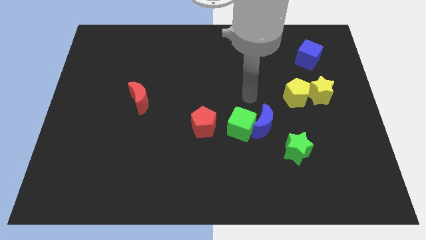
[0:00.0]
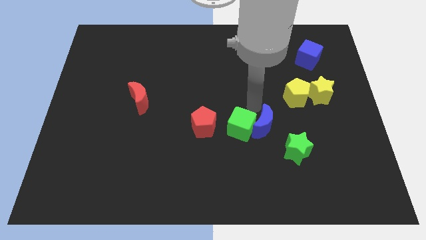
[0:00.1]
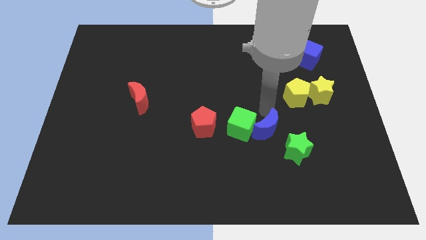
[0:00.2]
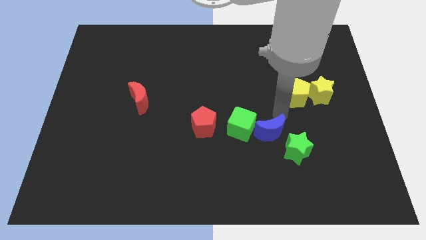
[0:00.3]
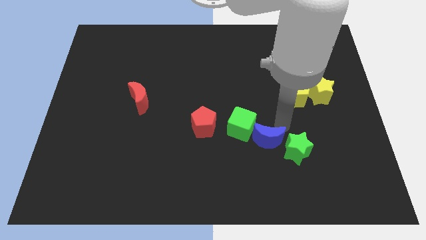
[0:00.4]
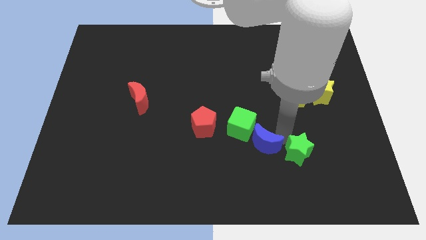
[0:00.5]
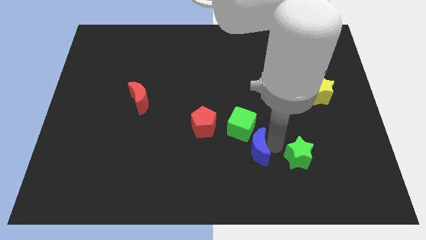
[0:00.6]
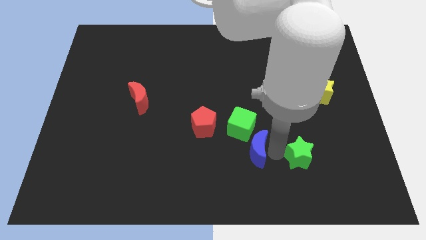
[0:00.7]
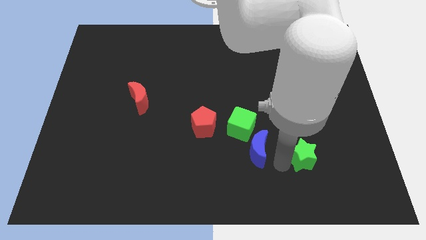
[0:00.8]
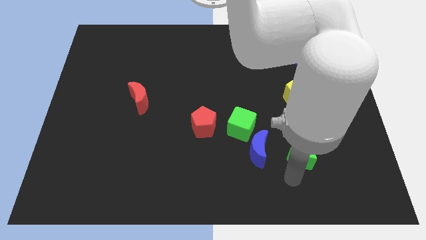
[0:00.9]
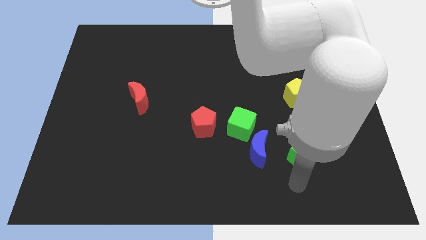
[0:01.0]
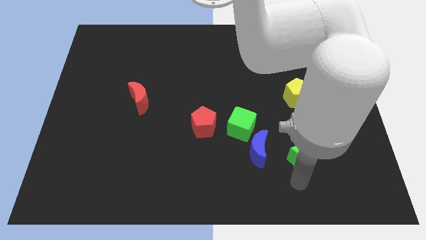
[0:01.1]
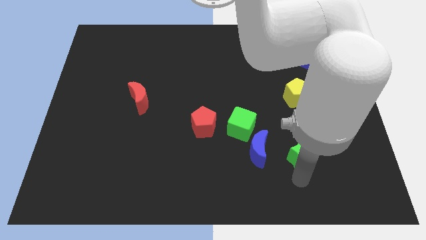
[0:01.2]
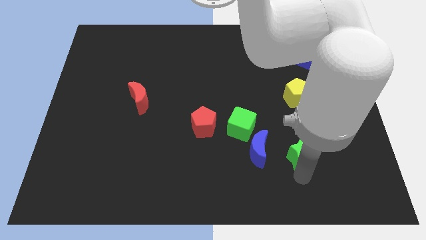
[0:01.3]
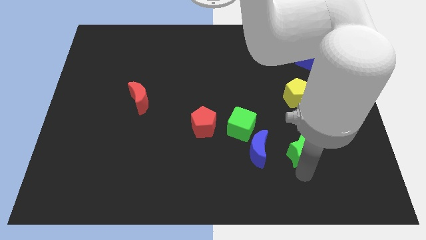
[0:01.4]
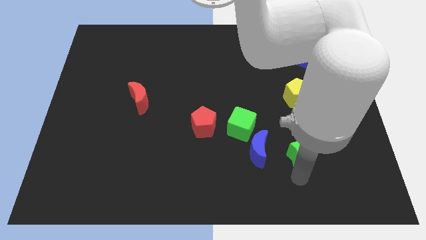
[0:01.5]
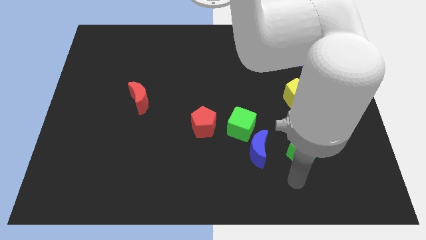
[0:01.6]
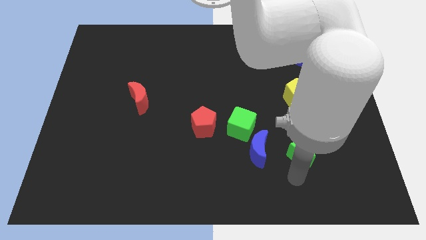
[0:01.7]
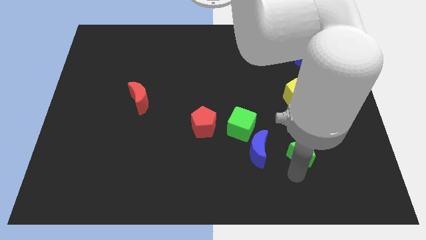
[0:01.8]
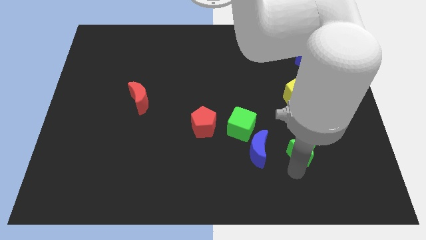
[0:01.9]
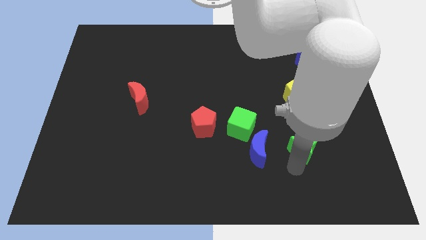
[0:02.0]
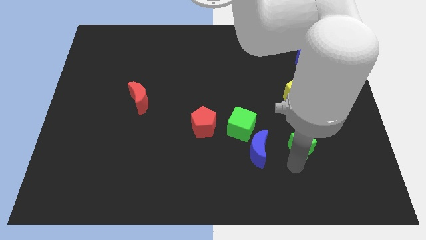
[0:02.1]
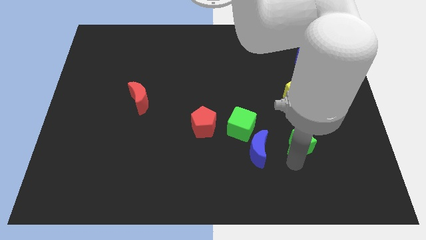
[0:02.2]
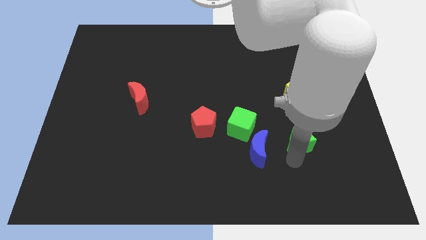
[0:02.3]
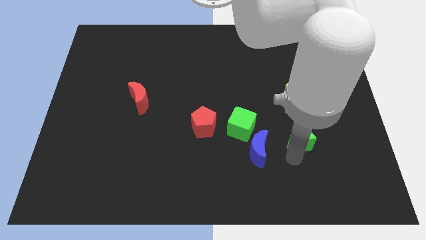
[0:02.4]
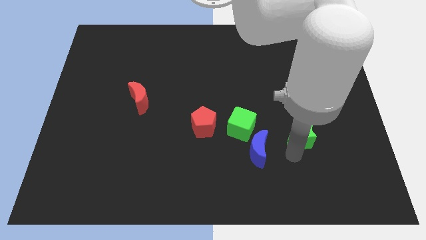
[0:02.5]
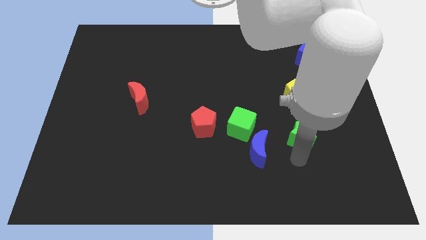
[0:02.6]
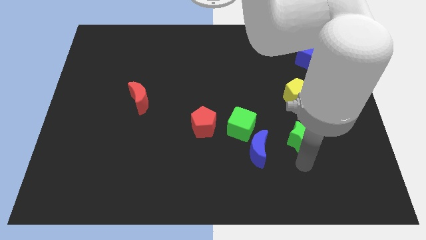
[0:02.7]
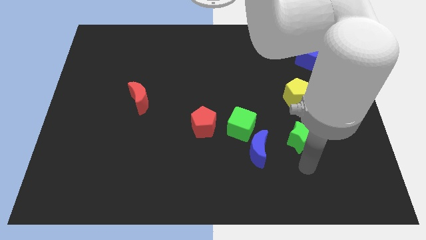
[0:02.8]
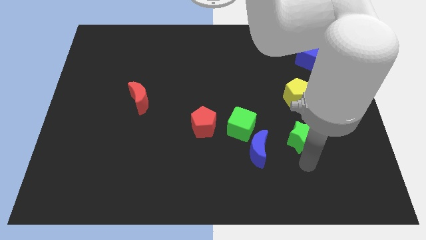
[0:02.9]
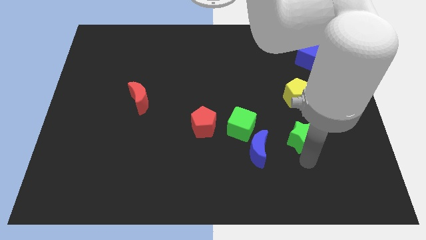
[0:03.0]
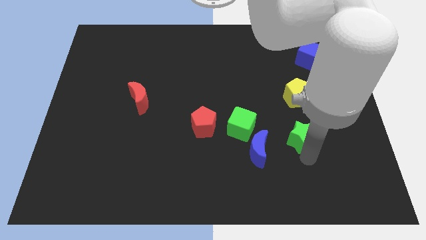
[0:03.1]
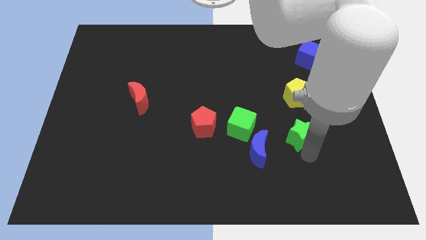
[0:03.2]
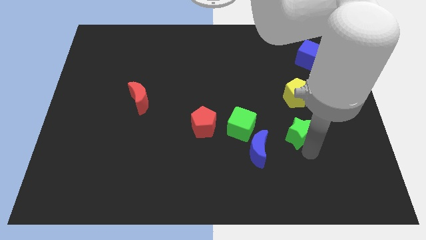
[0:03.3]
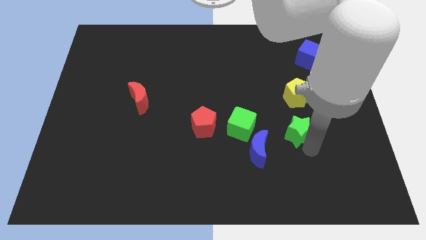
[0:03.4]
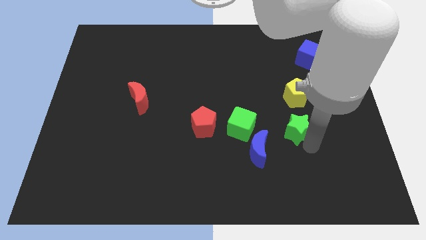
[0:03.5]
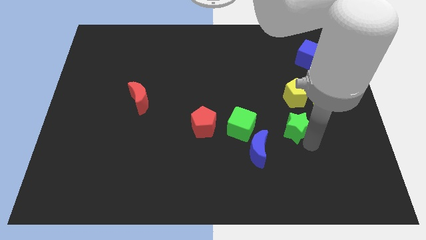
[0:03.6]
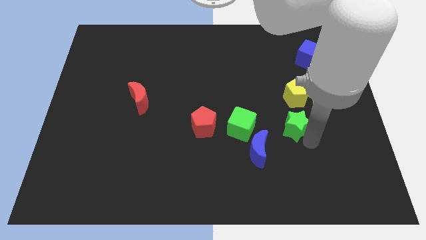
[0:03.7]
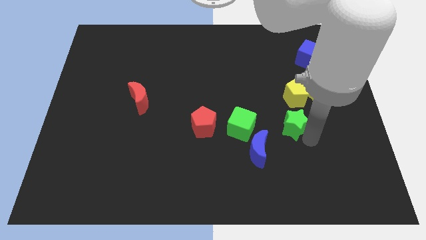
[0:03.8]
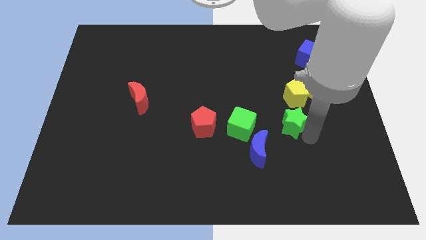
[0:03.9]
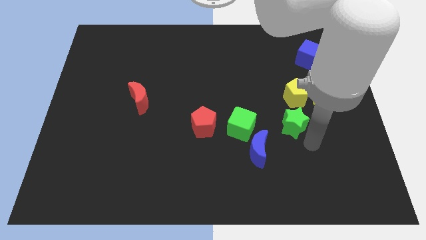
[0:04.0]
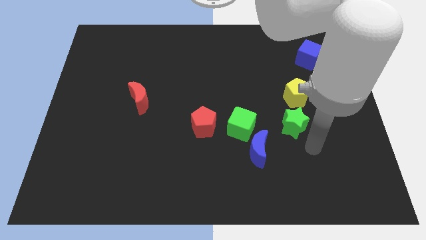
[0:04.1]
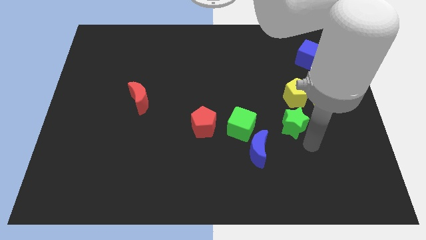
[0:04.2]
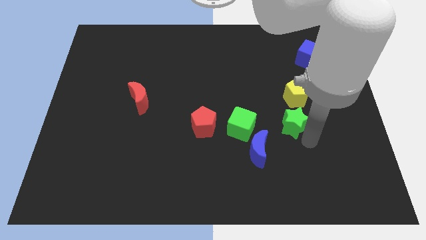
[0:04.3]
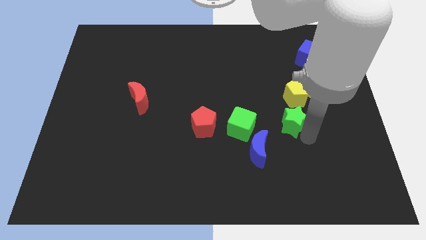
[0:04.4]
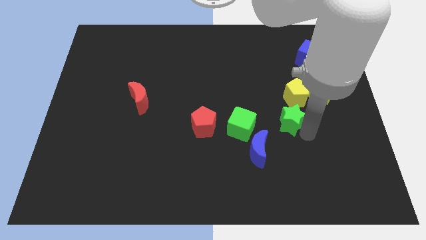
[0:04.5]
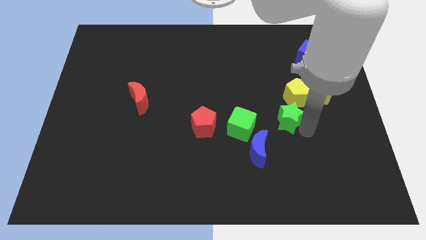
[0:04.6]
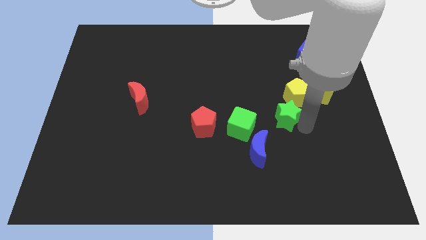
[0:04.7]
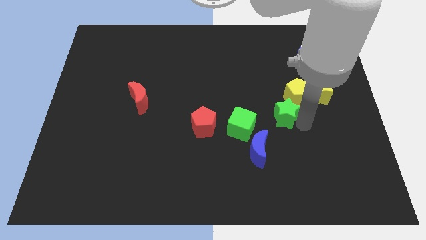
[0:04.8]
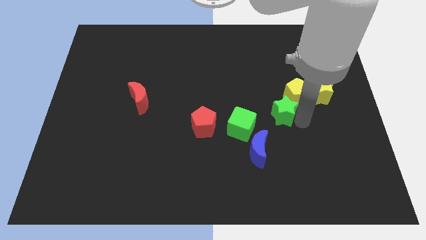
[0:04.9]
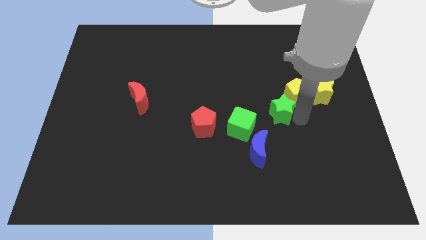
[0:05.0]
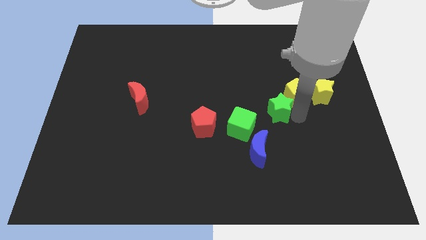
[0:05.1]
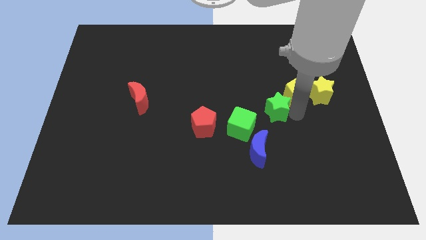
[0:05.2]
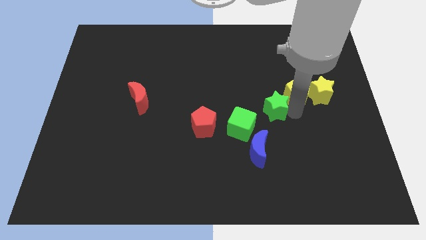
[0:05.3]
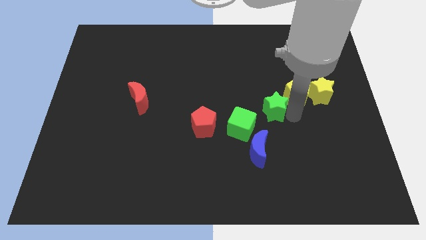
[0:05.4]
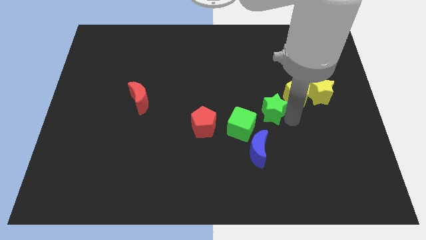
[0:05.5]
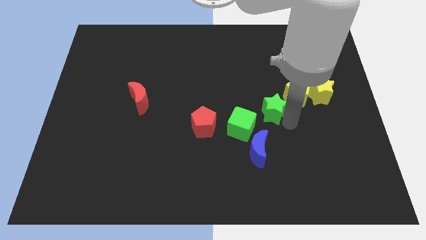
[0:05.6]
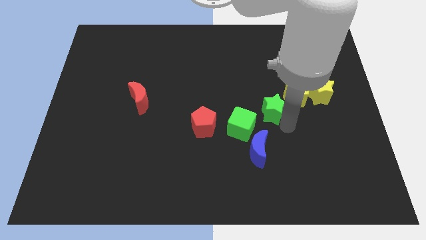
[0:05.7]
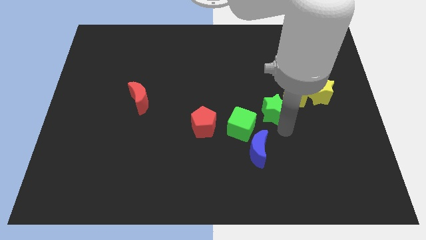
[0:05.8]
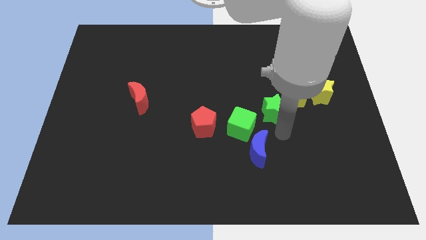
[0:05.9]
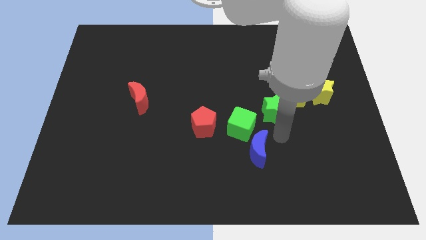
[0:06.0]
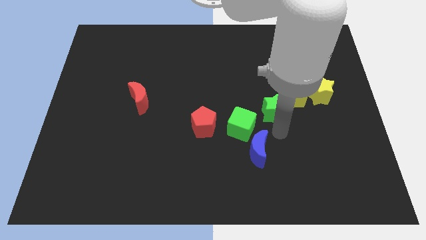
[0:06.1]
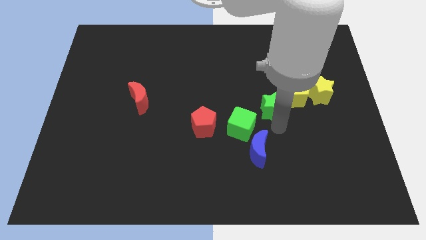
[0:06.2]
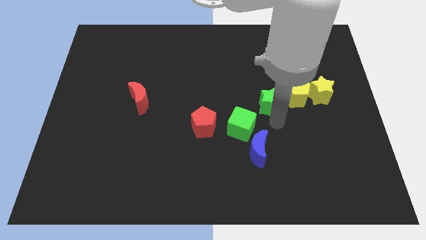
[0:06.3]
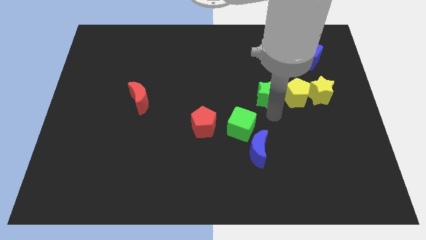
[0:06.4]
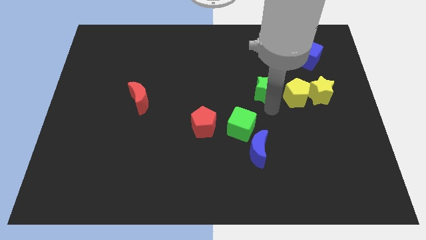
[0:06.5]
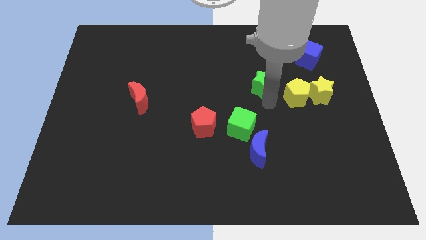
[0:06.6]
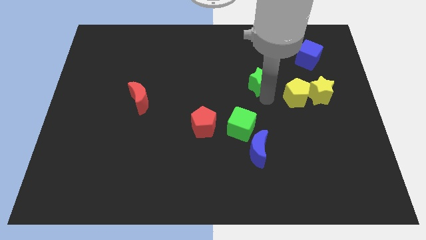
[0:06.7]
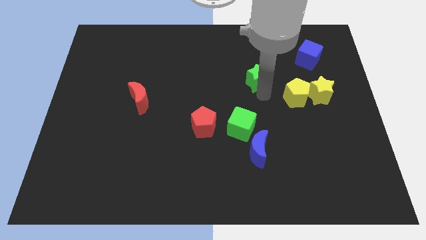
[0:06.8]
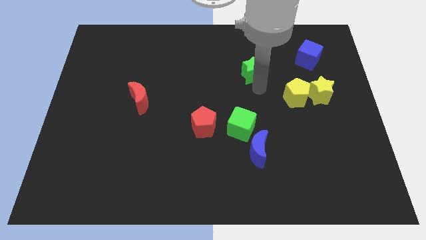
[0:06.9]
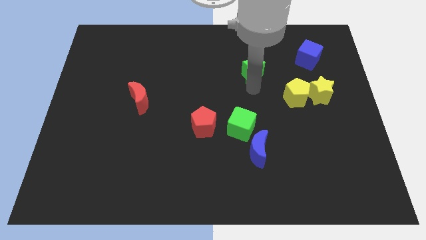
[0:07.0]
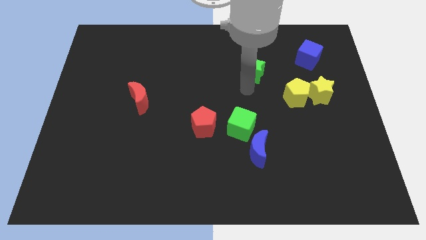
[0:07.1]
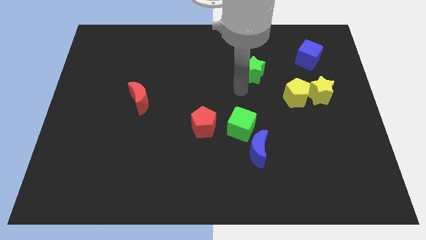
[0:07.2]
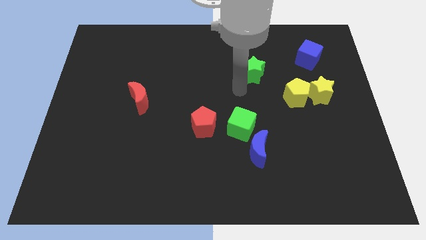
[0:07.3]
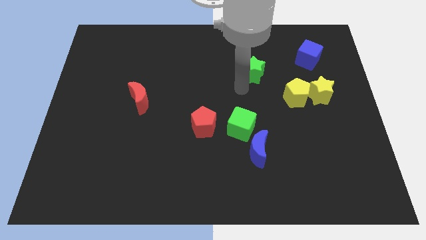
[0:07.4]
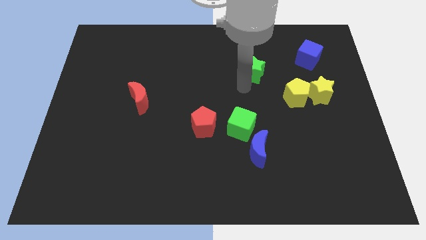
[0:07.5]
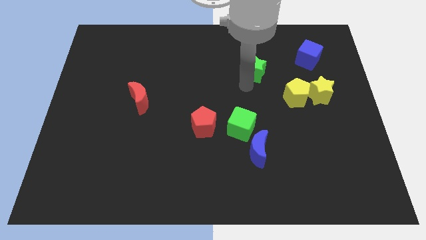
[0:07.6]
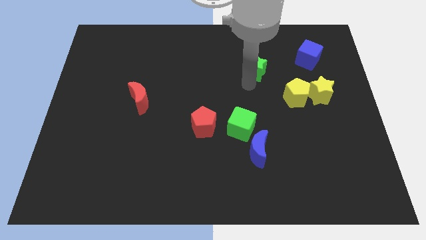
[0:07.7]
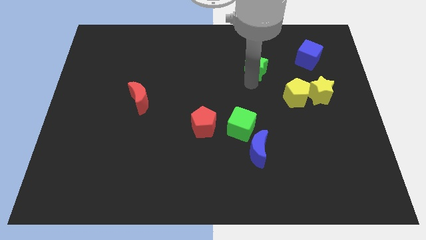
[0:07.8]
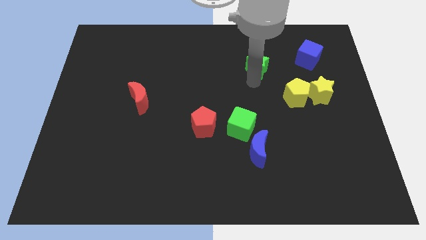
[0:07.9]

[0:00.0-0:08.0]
slide the green star to the left of the blue cube

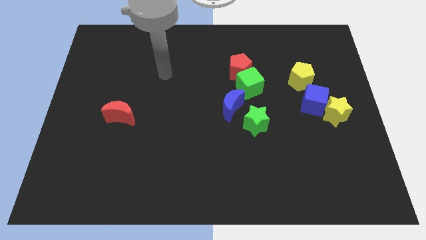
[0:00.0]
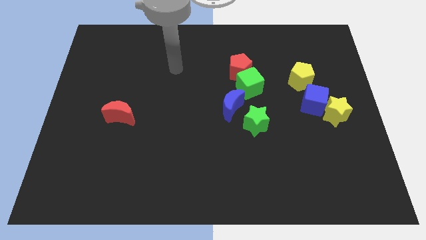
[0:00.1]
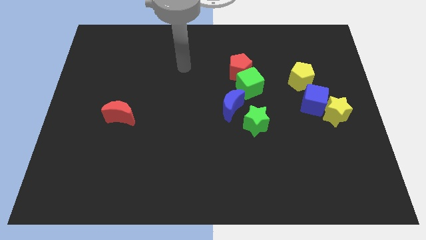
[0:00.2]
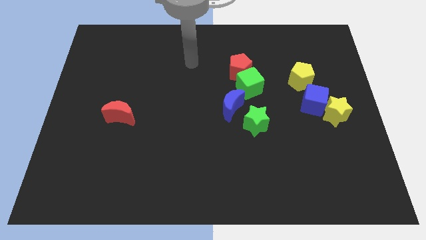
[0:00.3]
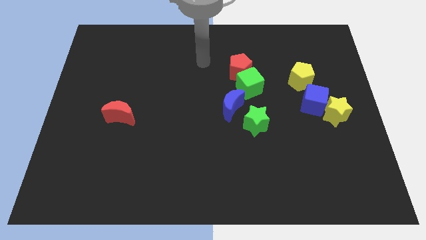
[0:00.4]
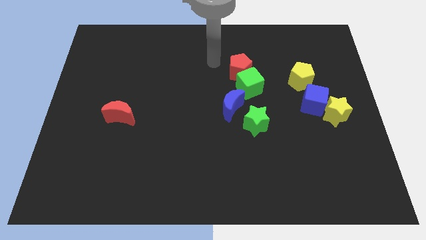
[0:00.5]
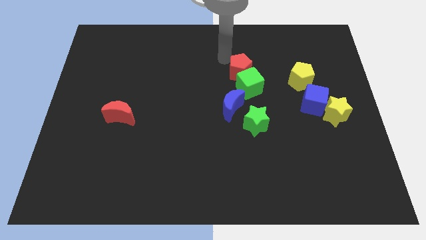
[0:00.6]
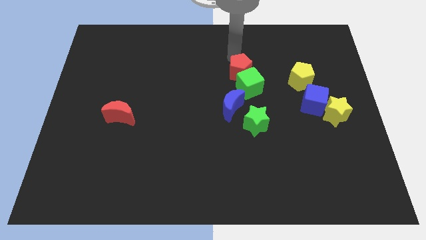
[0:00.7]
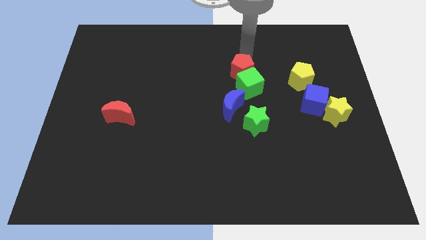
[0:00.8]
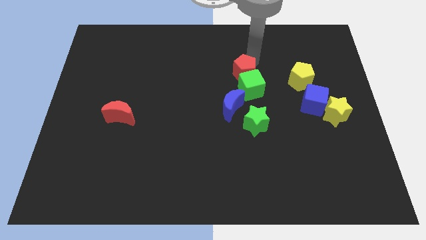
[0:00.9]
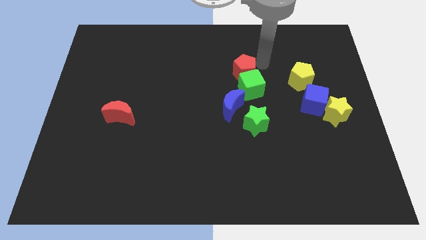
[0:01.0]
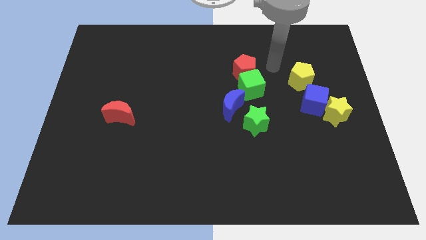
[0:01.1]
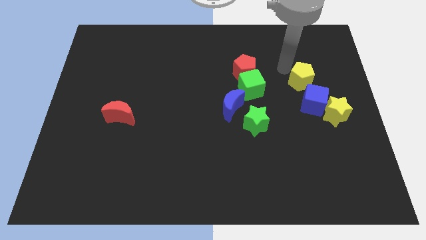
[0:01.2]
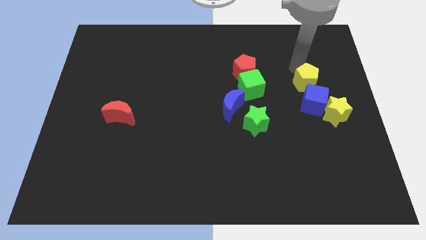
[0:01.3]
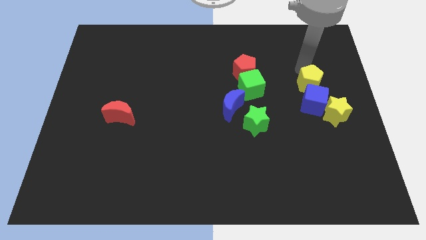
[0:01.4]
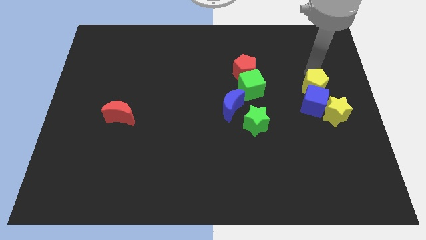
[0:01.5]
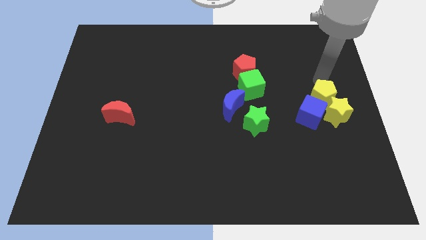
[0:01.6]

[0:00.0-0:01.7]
slide the blue cube to the bottom left of the yellow star
